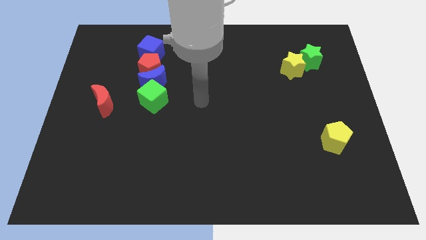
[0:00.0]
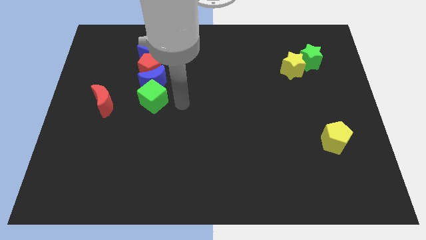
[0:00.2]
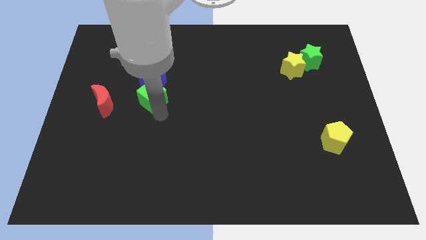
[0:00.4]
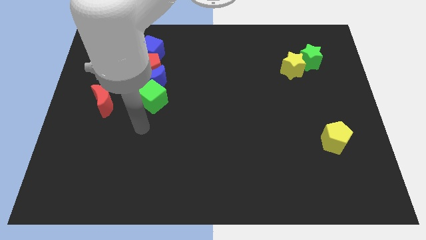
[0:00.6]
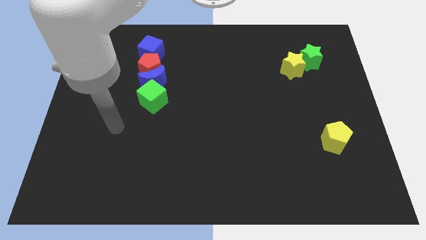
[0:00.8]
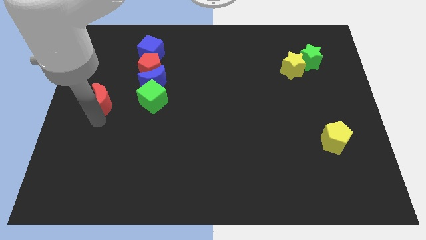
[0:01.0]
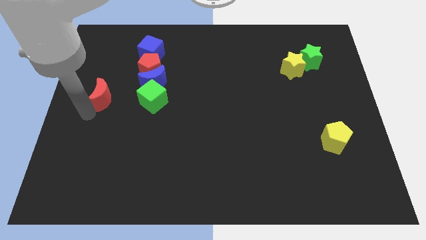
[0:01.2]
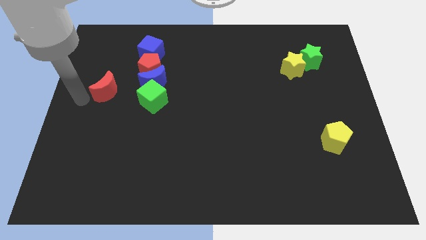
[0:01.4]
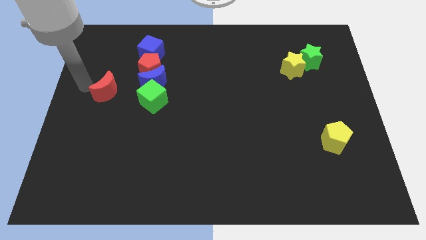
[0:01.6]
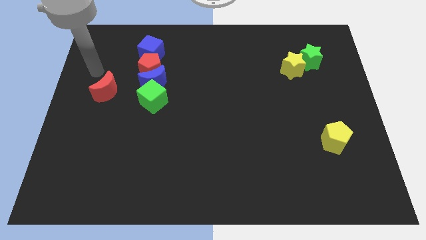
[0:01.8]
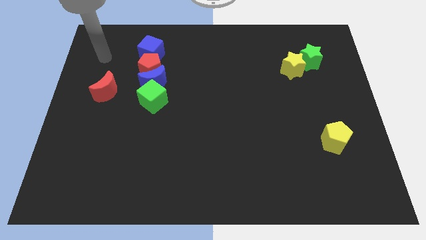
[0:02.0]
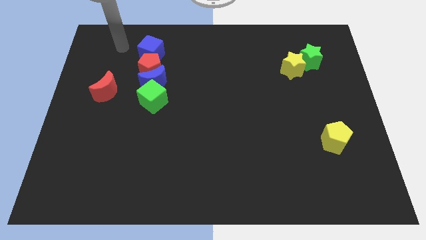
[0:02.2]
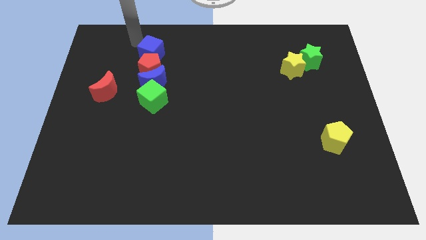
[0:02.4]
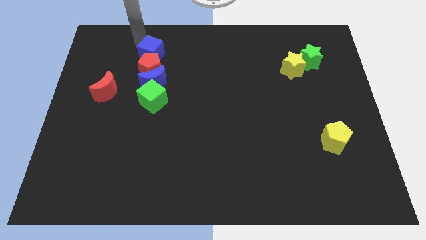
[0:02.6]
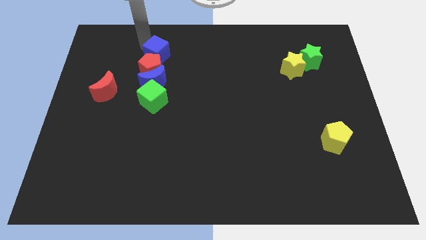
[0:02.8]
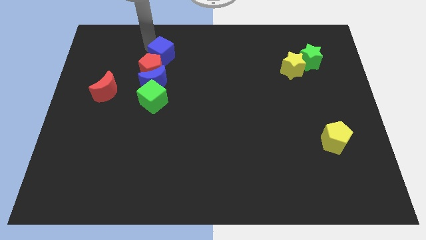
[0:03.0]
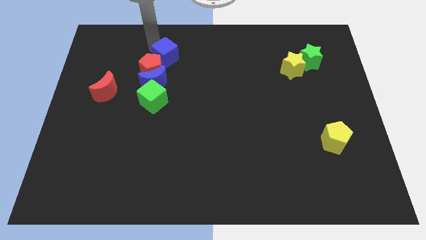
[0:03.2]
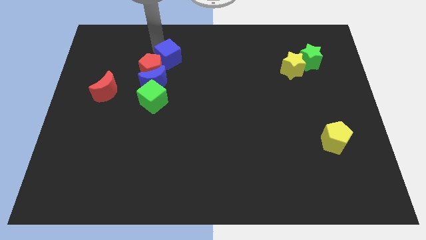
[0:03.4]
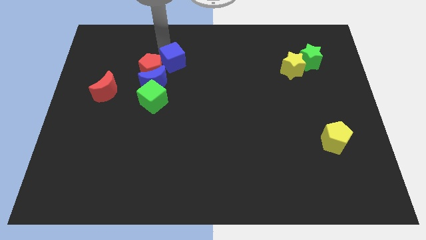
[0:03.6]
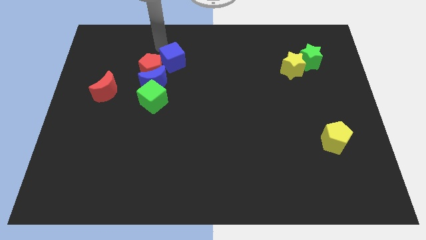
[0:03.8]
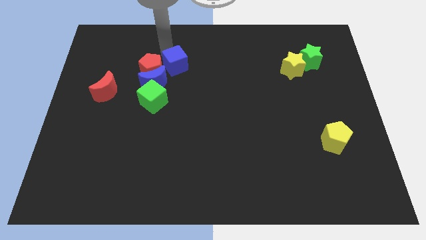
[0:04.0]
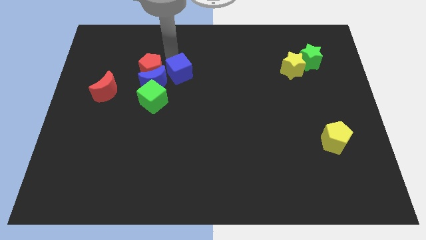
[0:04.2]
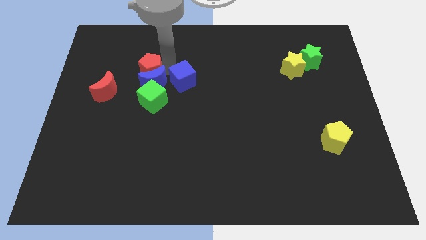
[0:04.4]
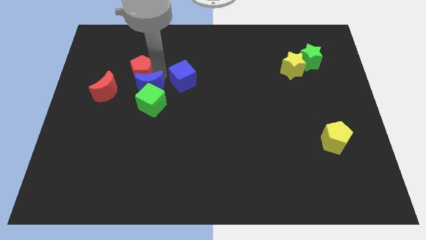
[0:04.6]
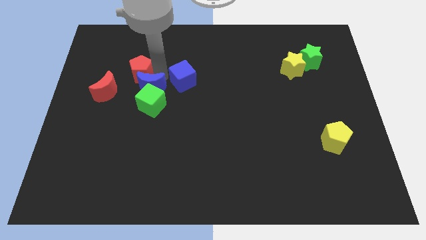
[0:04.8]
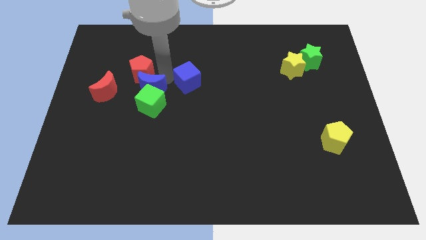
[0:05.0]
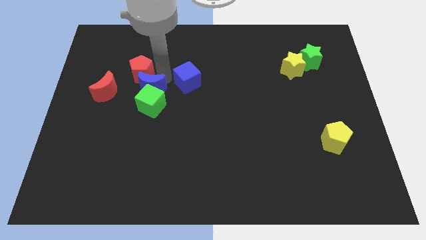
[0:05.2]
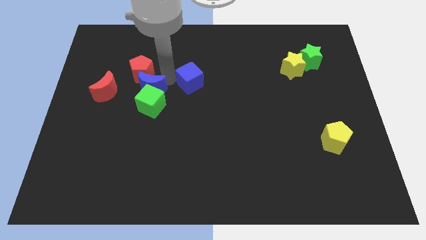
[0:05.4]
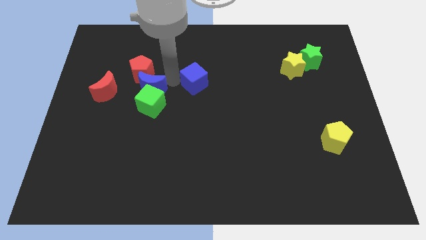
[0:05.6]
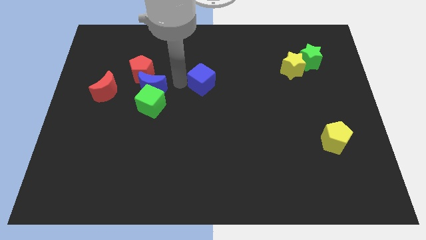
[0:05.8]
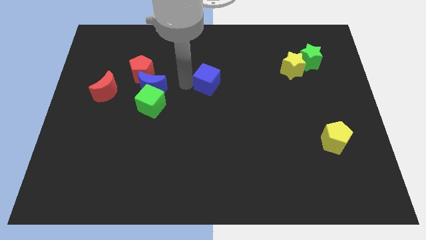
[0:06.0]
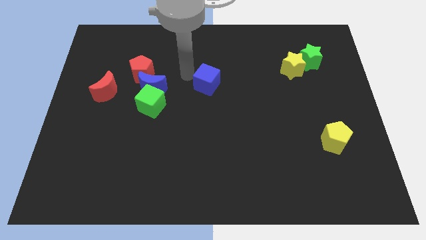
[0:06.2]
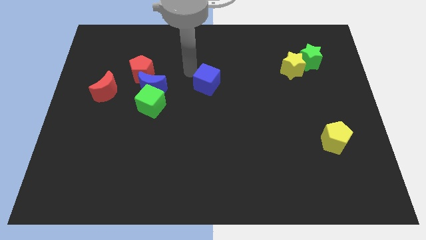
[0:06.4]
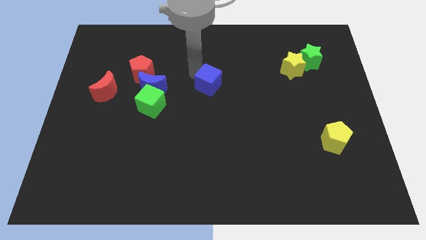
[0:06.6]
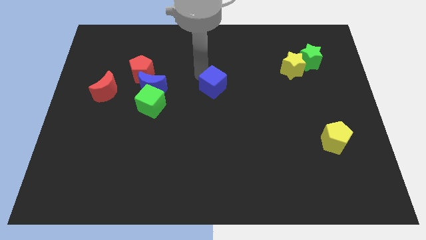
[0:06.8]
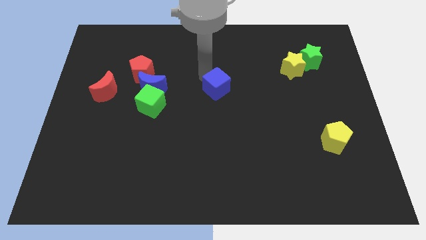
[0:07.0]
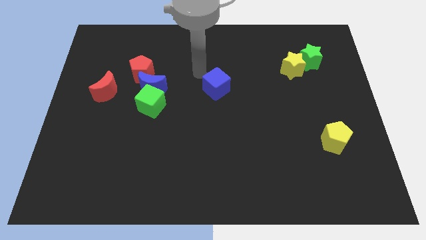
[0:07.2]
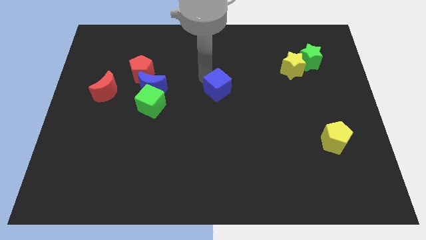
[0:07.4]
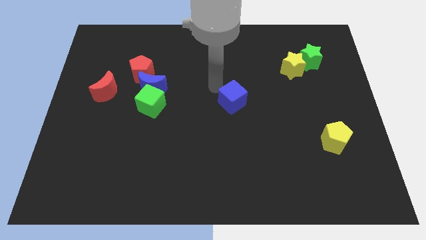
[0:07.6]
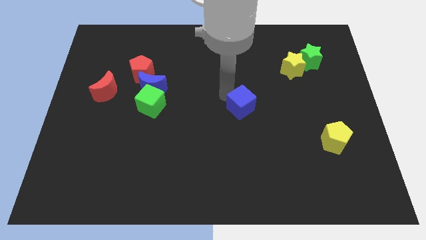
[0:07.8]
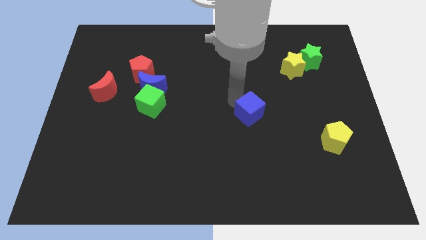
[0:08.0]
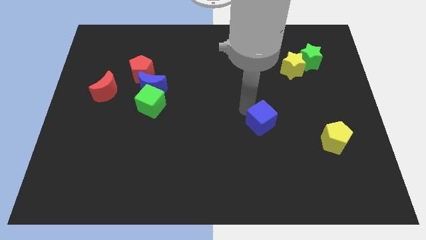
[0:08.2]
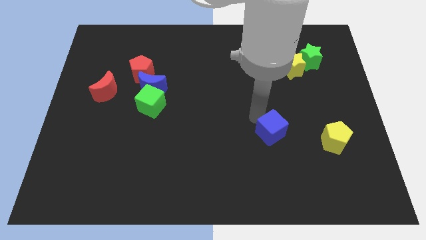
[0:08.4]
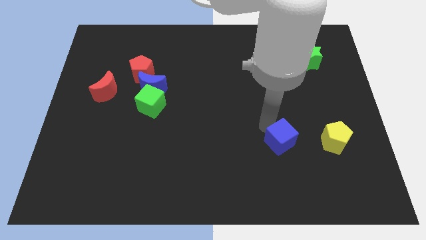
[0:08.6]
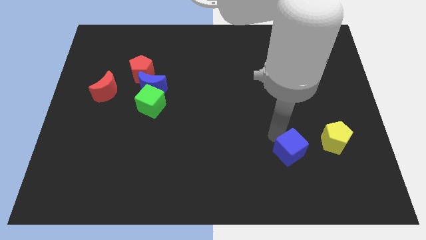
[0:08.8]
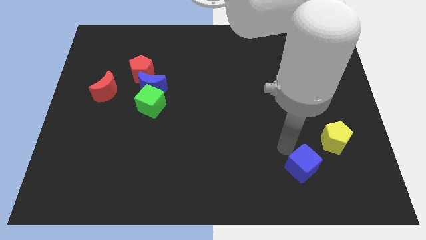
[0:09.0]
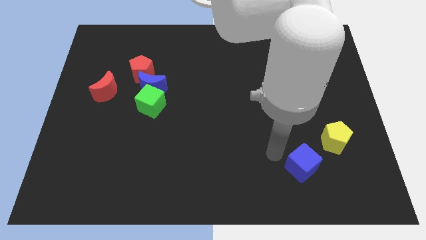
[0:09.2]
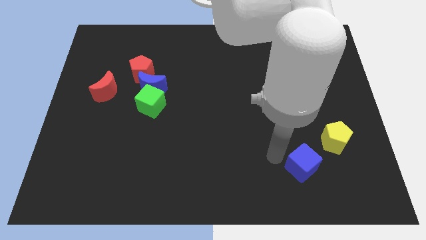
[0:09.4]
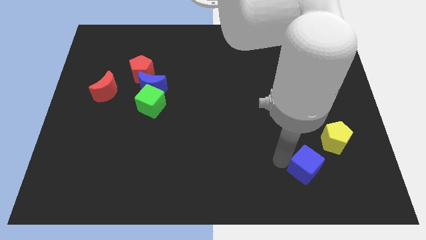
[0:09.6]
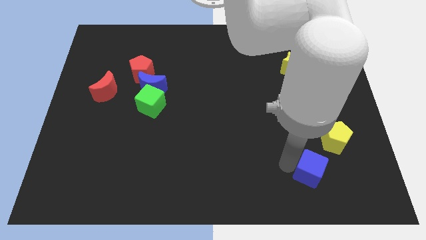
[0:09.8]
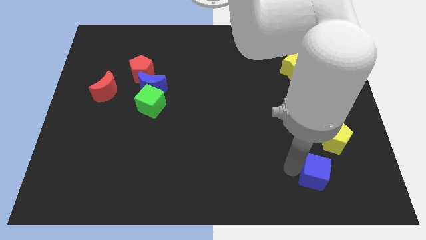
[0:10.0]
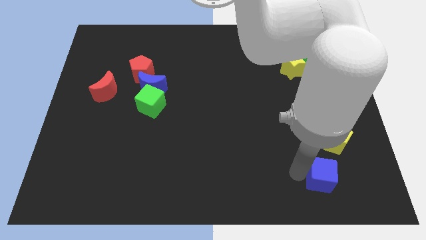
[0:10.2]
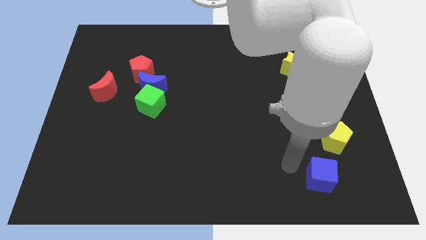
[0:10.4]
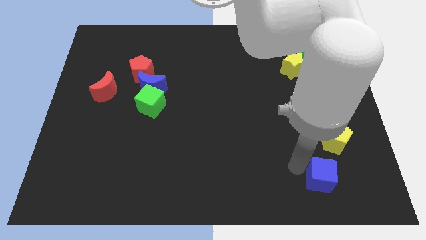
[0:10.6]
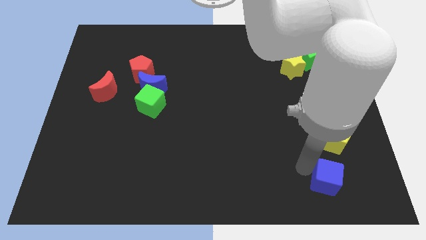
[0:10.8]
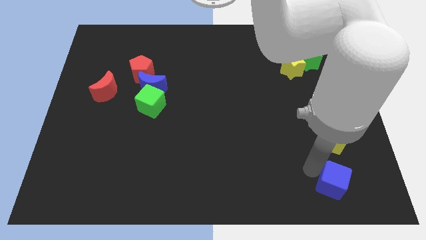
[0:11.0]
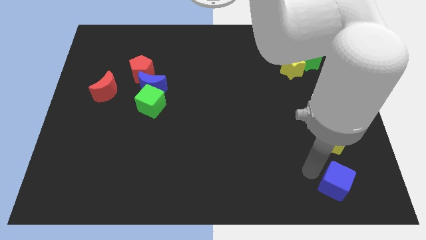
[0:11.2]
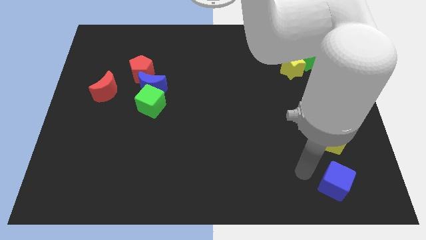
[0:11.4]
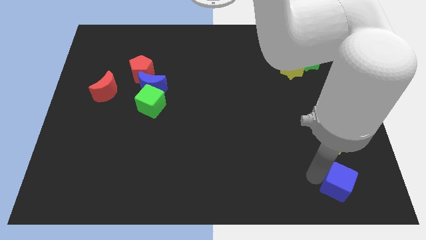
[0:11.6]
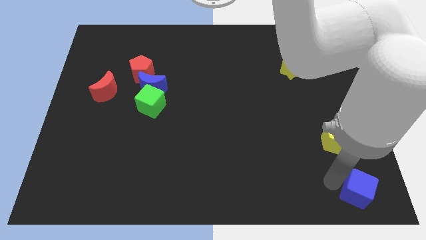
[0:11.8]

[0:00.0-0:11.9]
slide the blue cube to the lower right corner
